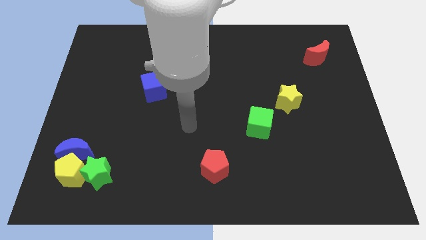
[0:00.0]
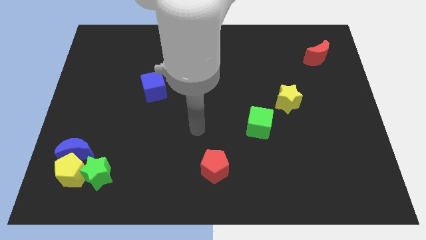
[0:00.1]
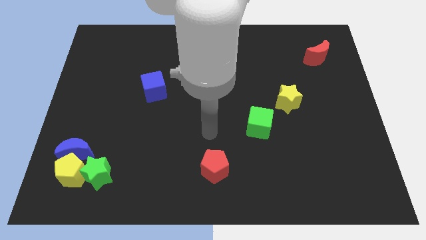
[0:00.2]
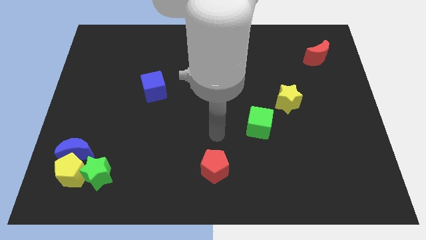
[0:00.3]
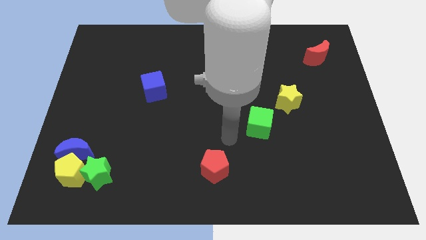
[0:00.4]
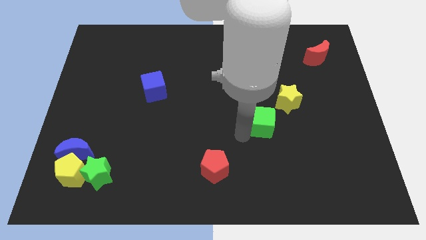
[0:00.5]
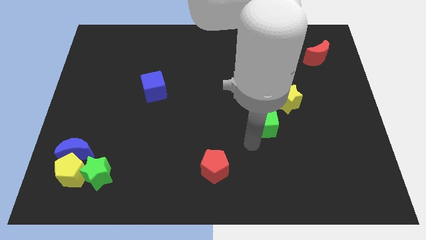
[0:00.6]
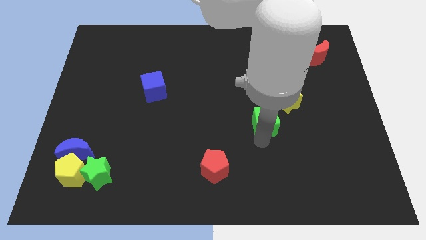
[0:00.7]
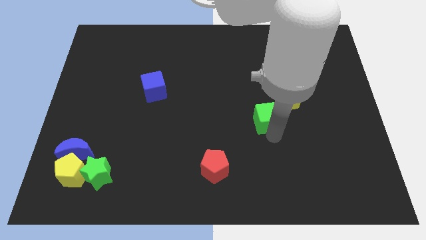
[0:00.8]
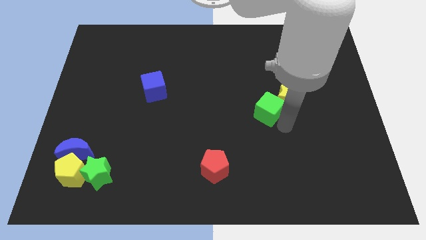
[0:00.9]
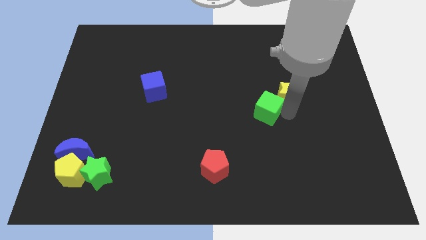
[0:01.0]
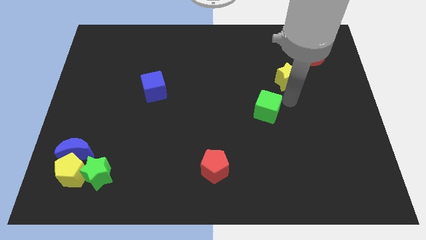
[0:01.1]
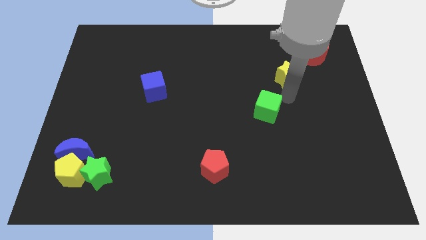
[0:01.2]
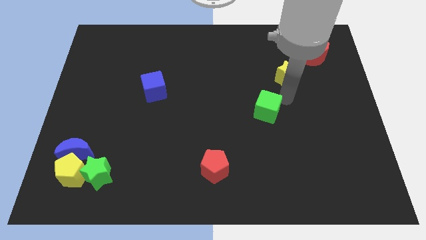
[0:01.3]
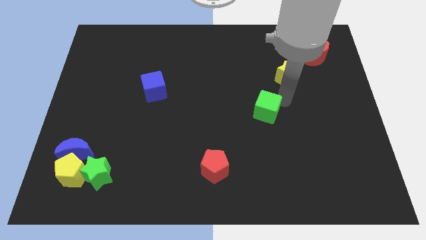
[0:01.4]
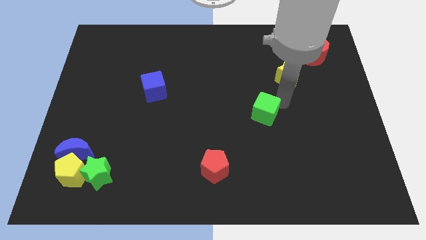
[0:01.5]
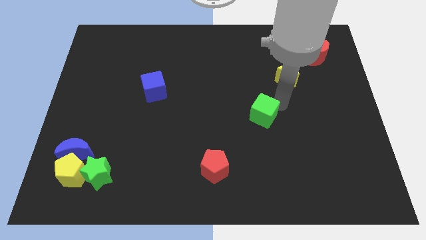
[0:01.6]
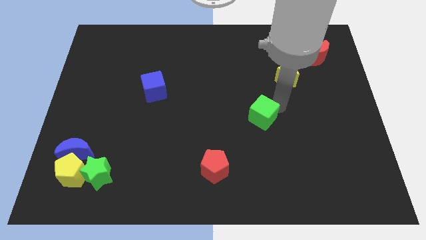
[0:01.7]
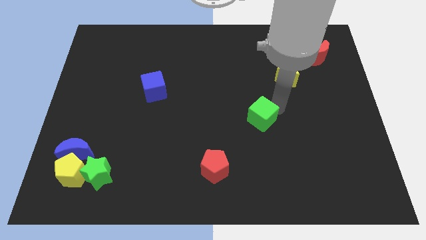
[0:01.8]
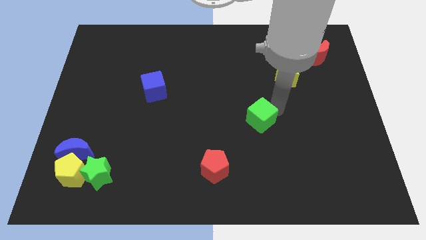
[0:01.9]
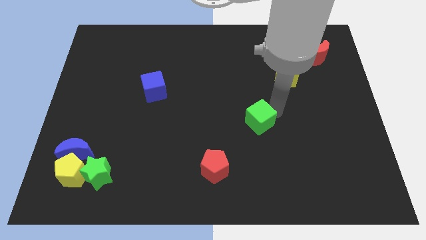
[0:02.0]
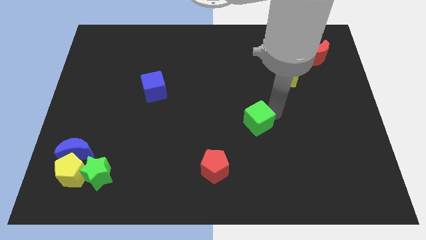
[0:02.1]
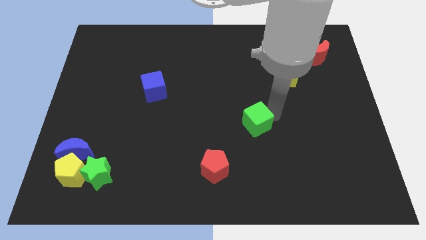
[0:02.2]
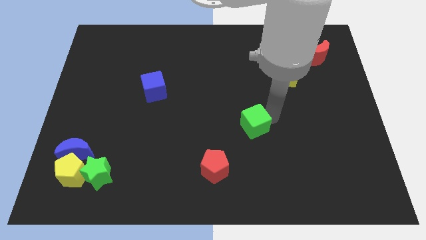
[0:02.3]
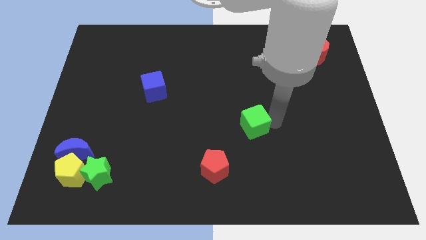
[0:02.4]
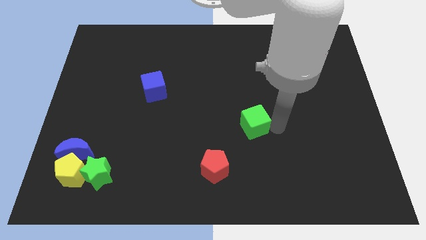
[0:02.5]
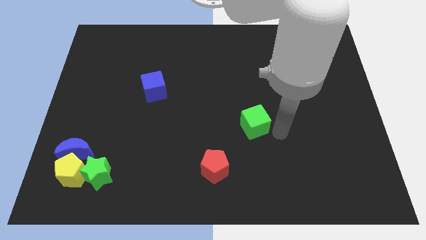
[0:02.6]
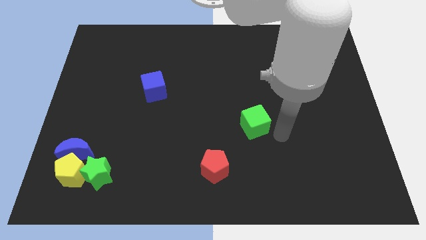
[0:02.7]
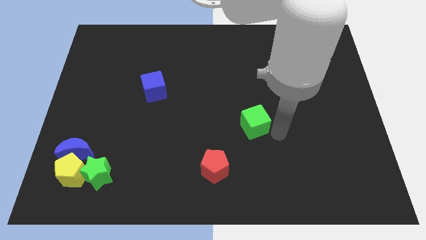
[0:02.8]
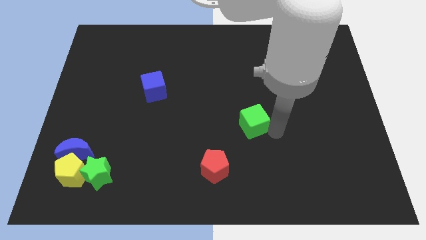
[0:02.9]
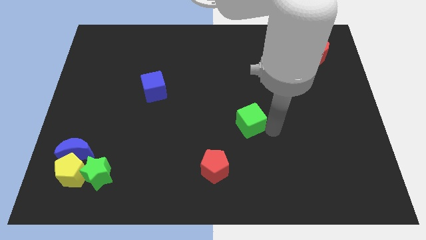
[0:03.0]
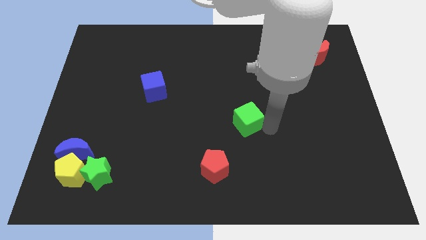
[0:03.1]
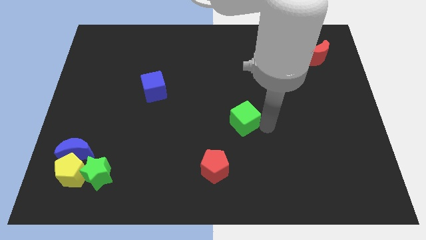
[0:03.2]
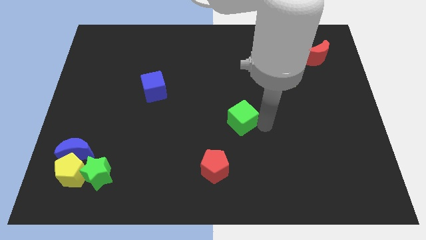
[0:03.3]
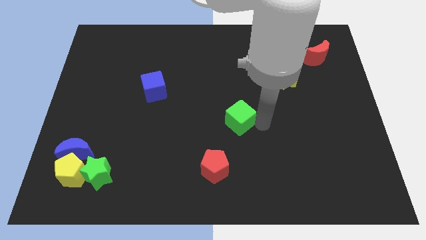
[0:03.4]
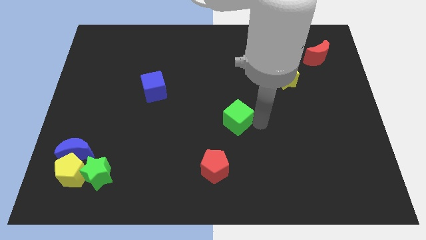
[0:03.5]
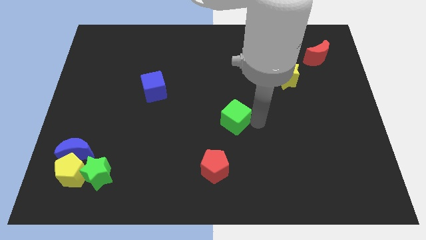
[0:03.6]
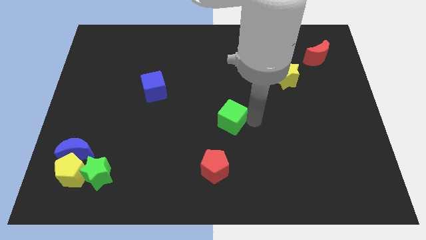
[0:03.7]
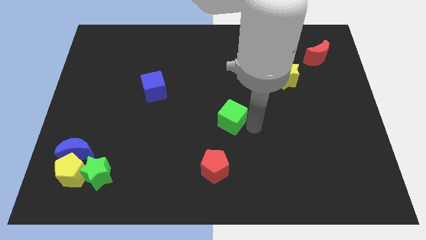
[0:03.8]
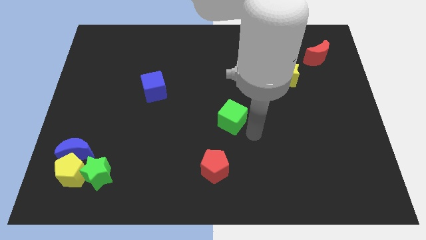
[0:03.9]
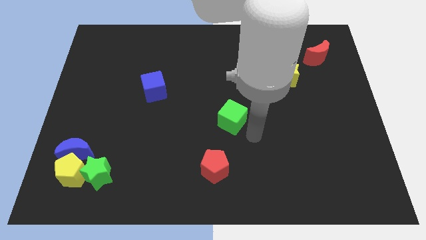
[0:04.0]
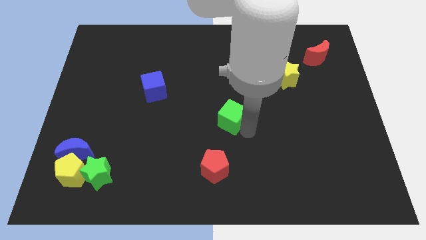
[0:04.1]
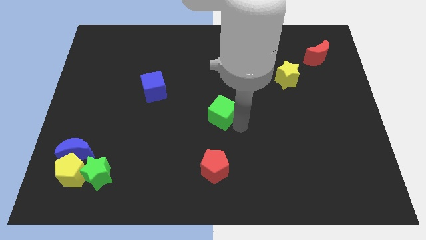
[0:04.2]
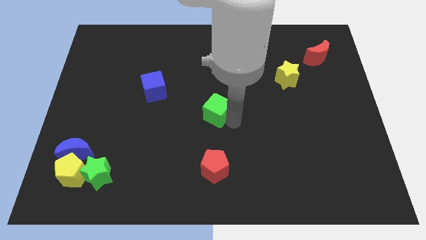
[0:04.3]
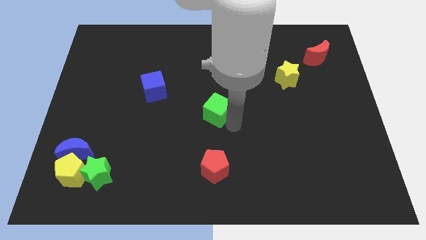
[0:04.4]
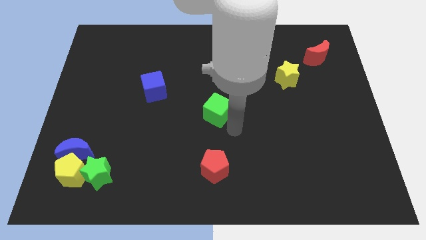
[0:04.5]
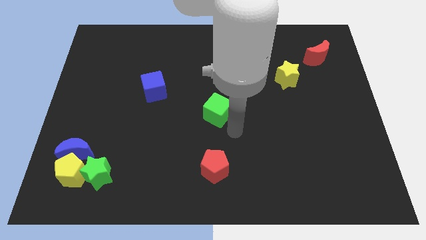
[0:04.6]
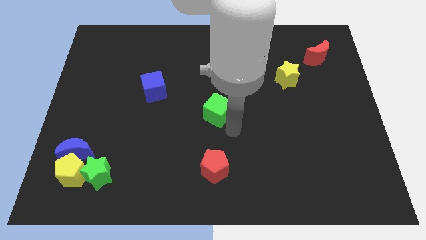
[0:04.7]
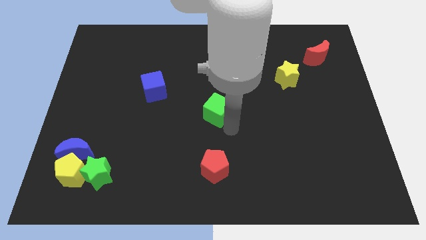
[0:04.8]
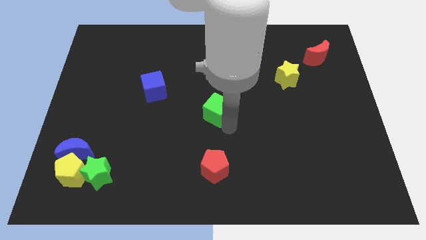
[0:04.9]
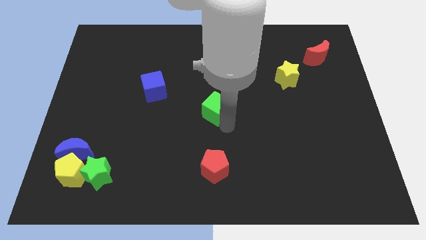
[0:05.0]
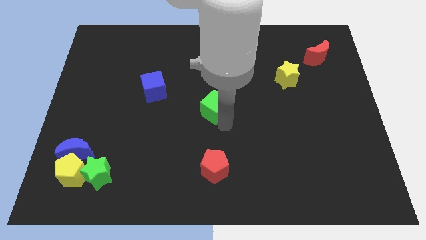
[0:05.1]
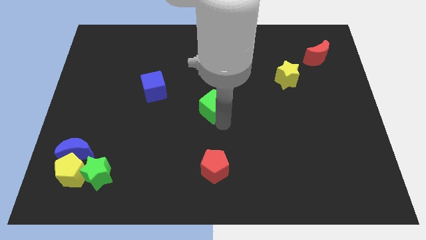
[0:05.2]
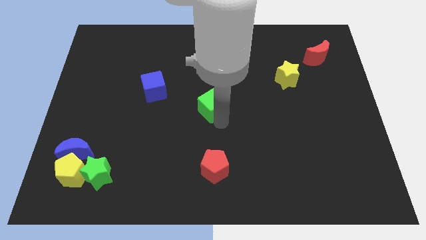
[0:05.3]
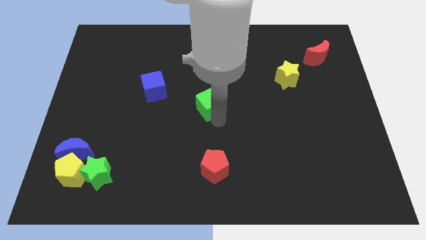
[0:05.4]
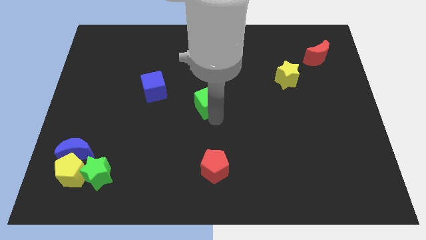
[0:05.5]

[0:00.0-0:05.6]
slide the green cube right of the blue cube

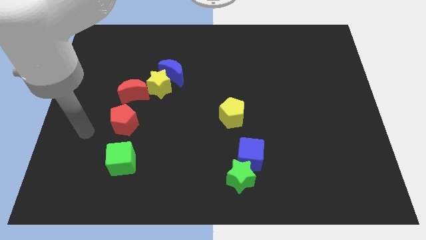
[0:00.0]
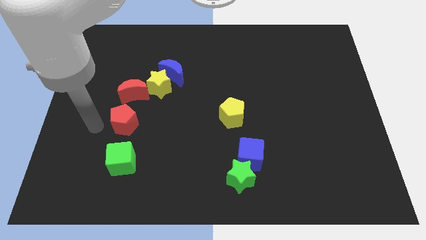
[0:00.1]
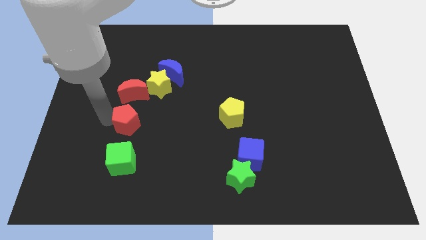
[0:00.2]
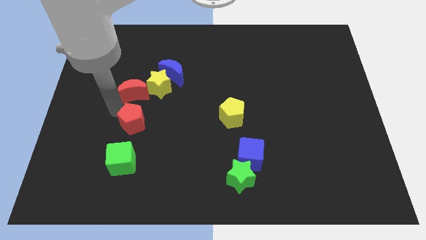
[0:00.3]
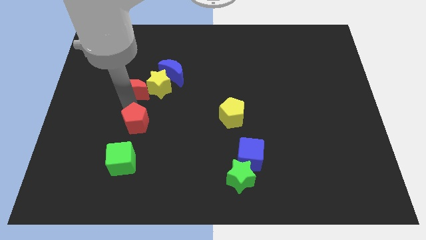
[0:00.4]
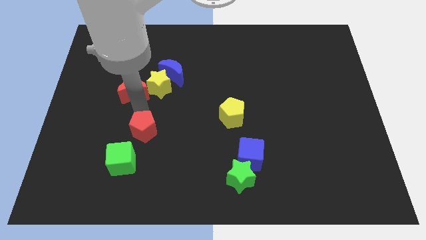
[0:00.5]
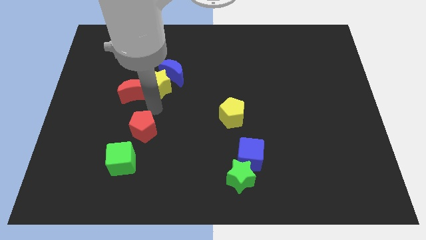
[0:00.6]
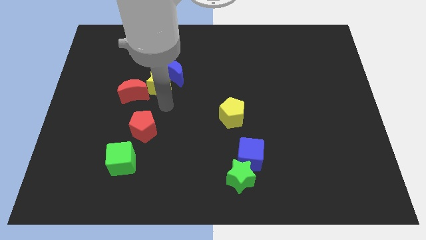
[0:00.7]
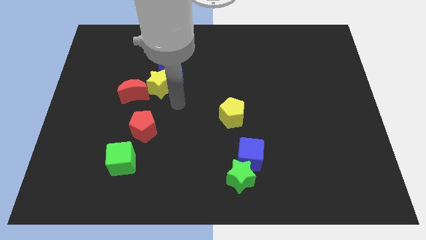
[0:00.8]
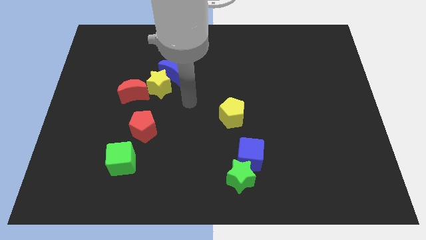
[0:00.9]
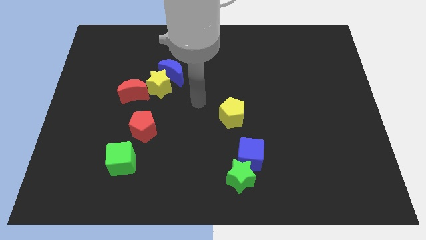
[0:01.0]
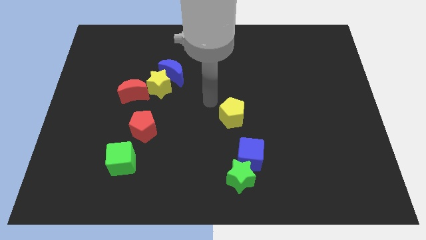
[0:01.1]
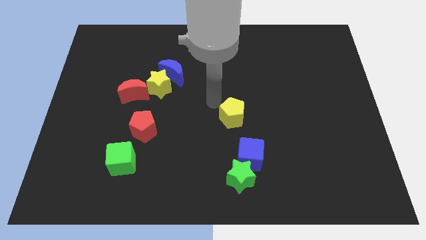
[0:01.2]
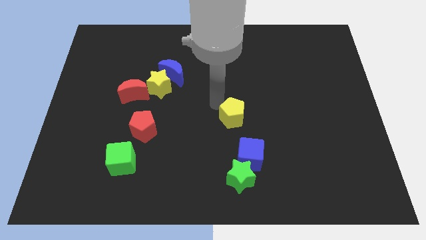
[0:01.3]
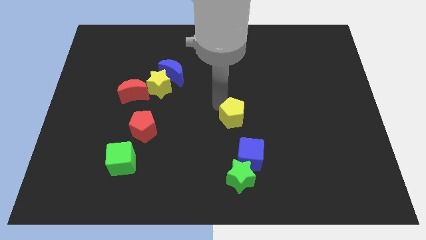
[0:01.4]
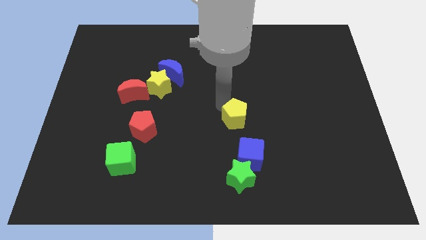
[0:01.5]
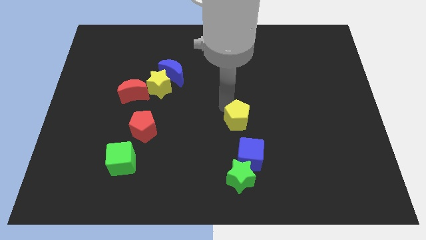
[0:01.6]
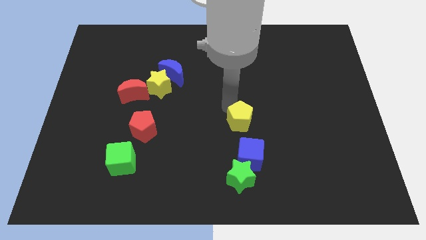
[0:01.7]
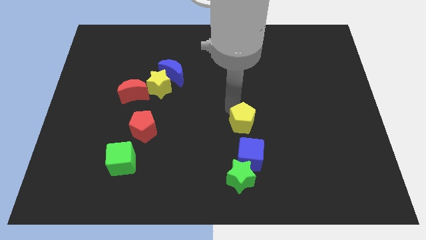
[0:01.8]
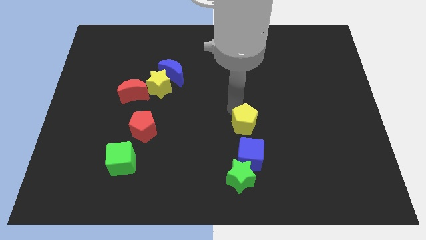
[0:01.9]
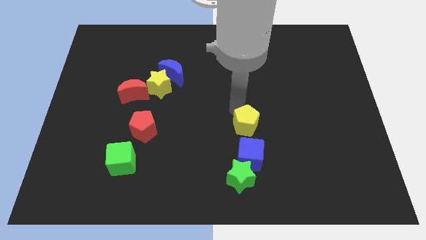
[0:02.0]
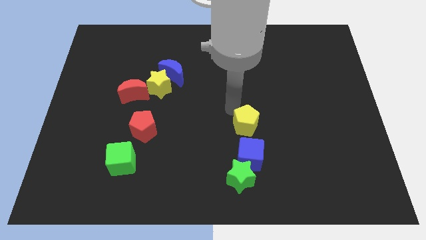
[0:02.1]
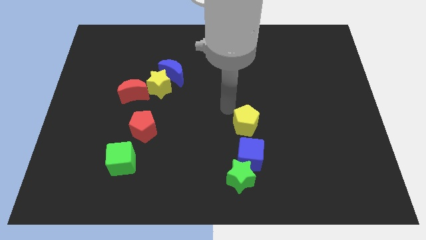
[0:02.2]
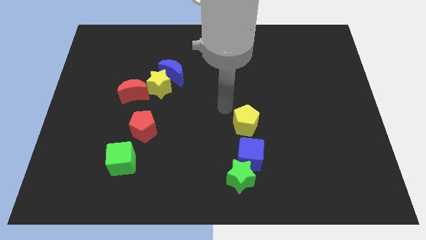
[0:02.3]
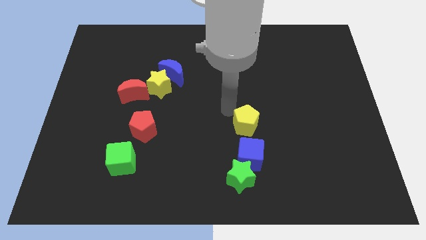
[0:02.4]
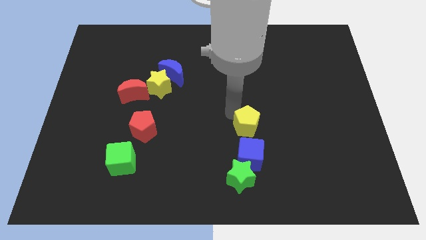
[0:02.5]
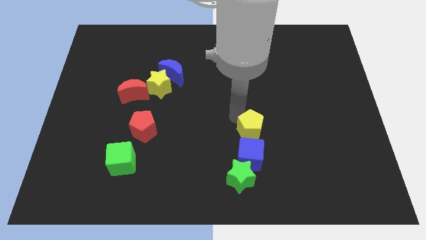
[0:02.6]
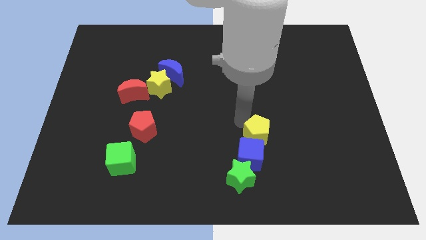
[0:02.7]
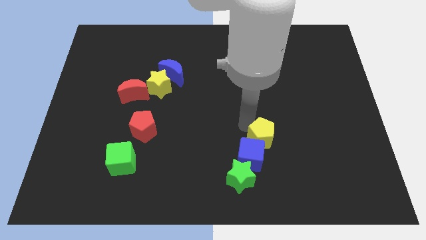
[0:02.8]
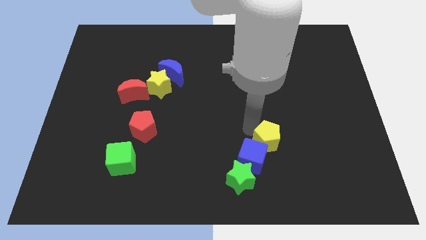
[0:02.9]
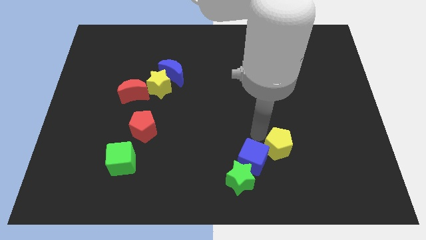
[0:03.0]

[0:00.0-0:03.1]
push the yellow pentagon right of the blue cube
